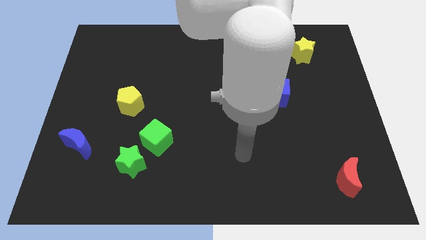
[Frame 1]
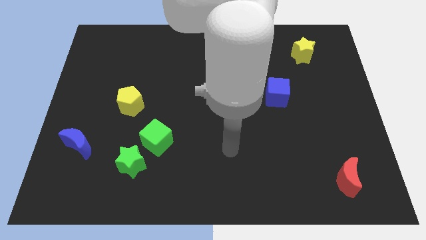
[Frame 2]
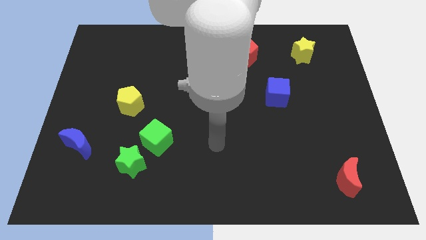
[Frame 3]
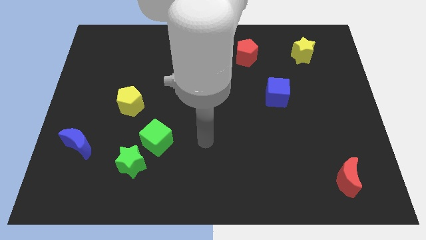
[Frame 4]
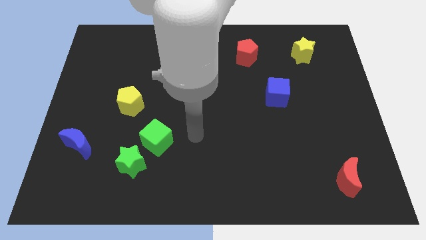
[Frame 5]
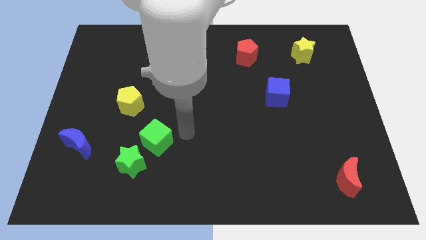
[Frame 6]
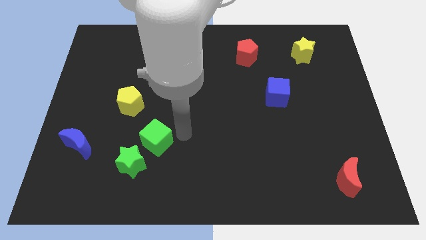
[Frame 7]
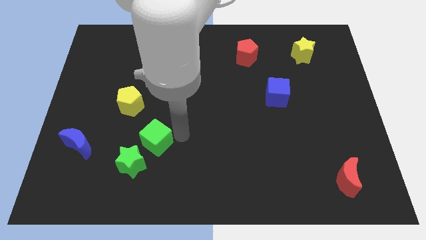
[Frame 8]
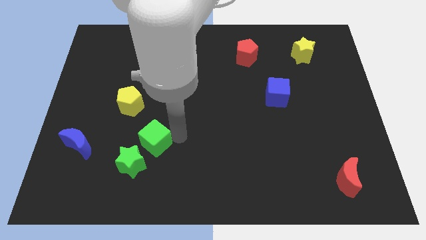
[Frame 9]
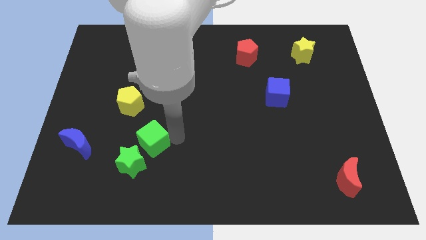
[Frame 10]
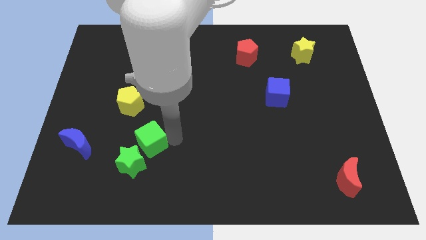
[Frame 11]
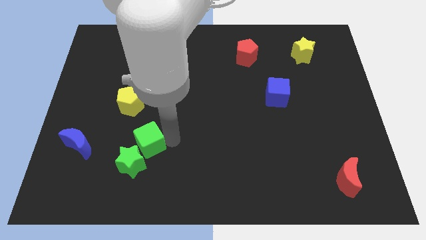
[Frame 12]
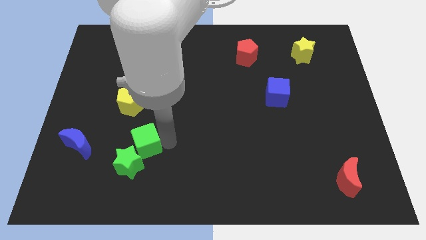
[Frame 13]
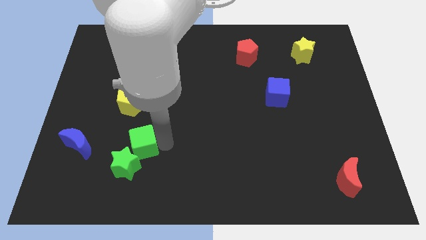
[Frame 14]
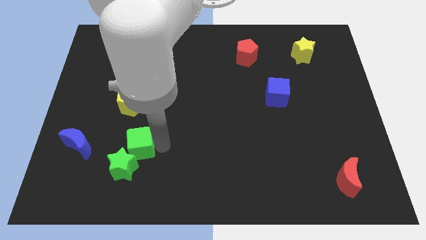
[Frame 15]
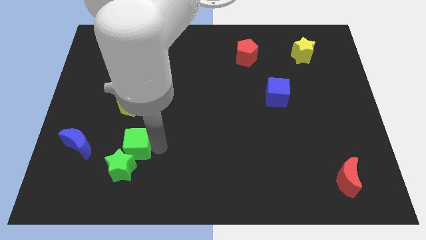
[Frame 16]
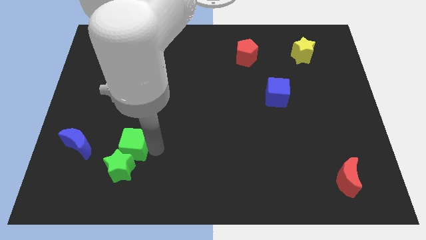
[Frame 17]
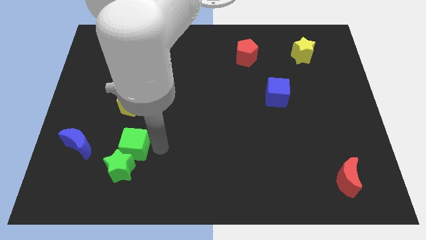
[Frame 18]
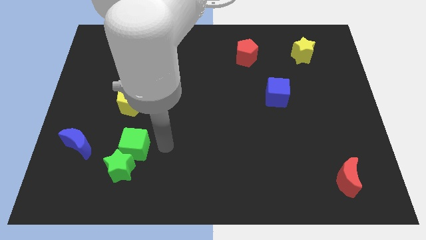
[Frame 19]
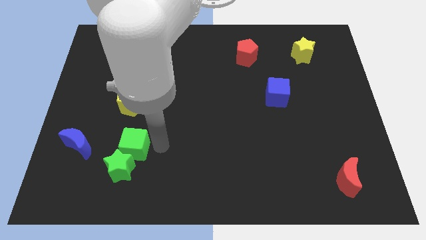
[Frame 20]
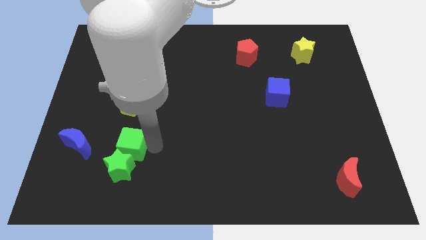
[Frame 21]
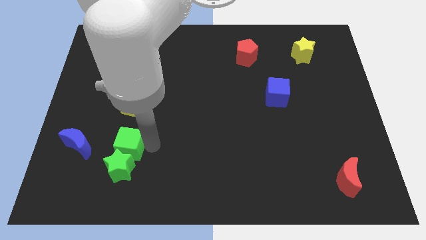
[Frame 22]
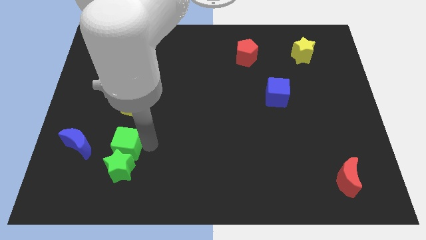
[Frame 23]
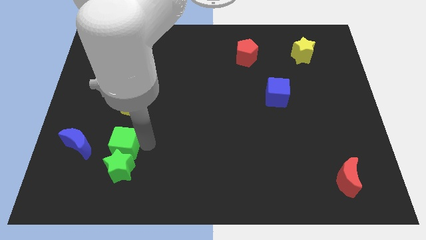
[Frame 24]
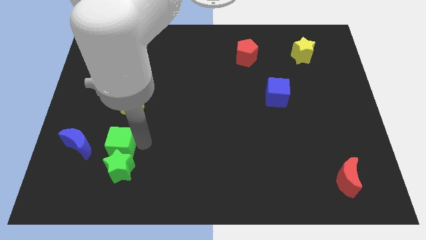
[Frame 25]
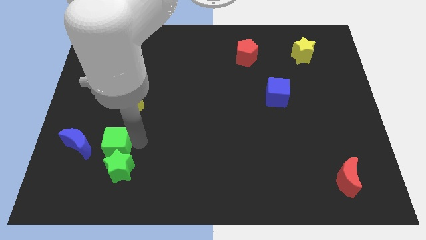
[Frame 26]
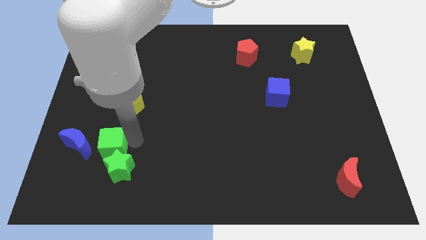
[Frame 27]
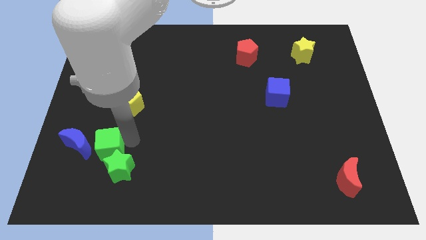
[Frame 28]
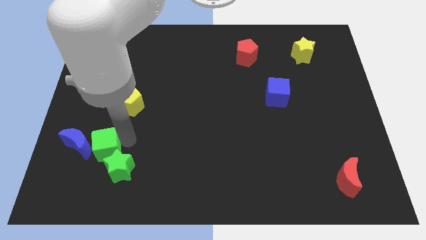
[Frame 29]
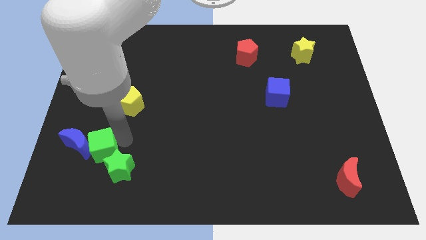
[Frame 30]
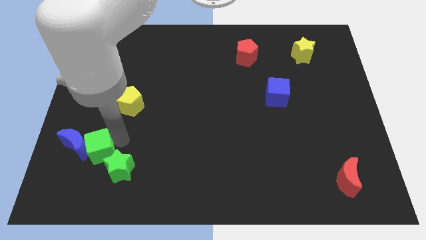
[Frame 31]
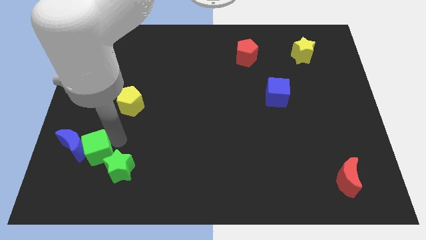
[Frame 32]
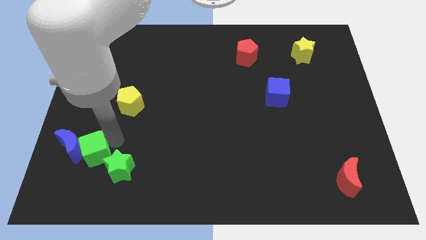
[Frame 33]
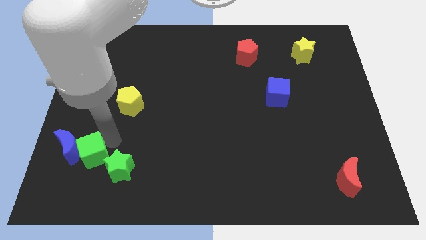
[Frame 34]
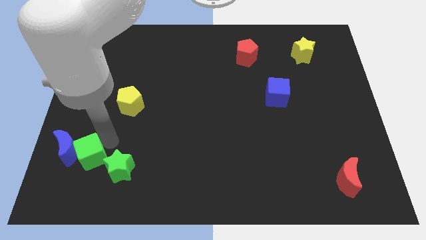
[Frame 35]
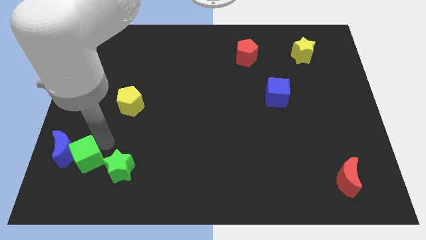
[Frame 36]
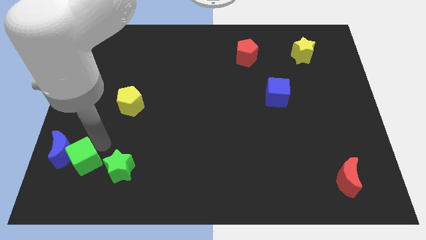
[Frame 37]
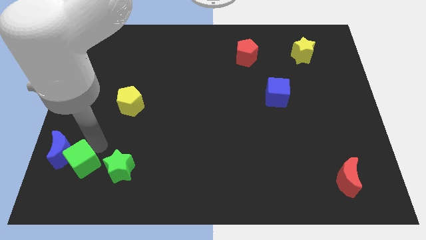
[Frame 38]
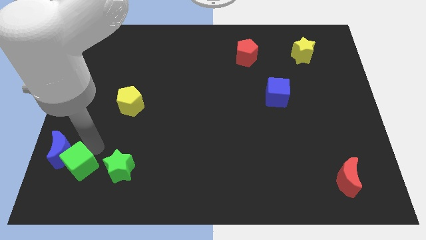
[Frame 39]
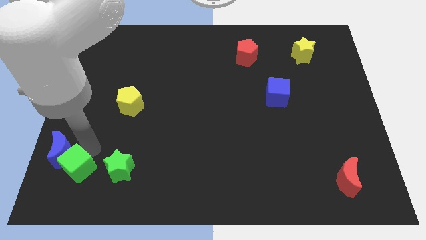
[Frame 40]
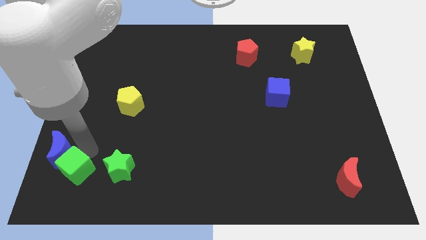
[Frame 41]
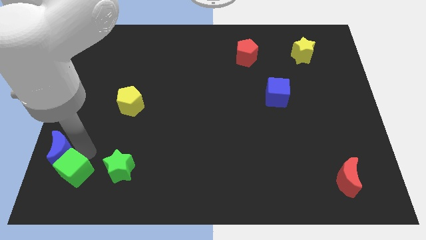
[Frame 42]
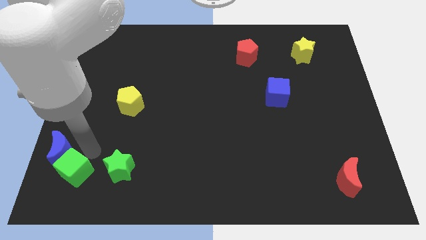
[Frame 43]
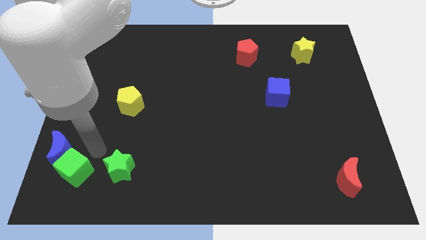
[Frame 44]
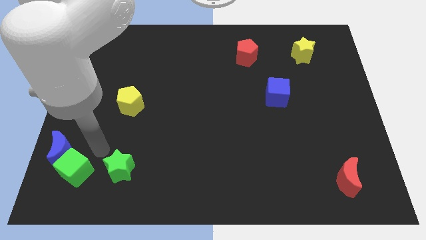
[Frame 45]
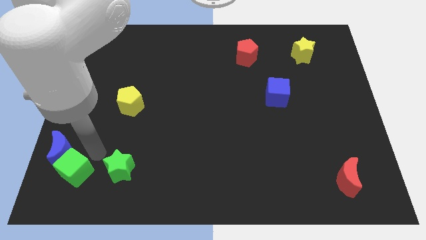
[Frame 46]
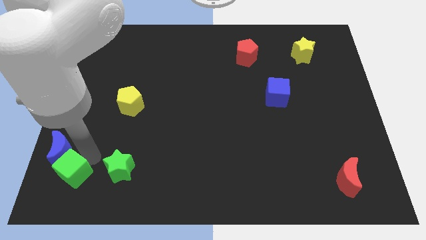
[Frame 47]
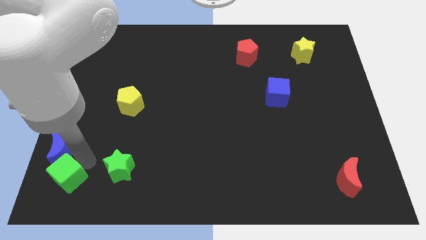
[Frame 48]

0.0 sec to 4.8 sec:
put the green cube to the lower left corner

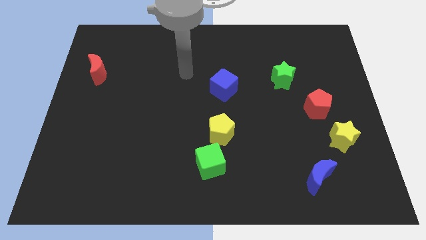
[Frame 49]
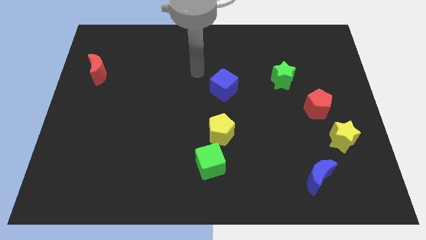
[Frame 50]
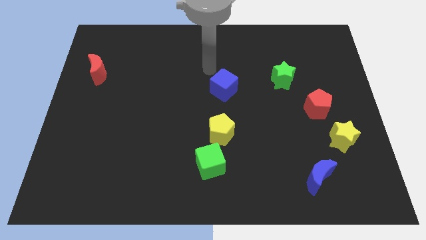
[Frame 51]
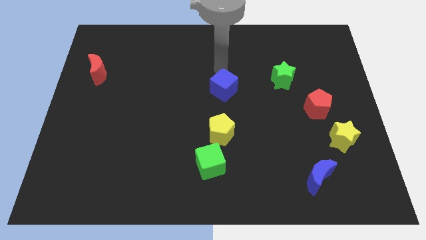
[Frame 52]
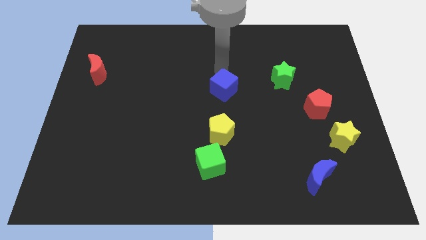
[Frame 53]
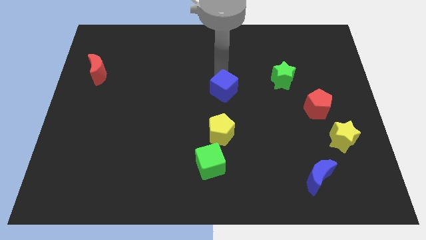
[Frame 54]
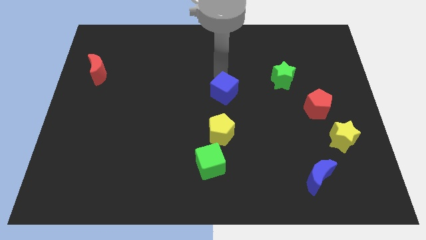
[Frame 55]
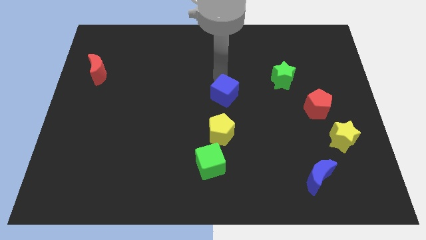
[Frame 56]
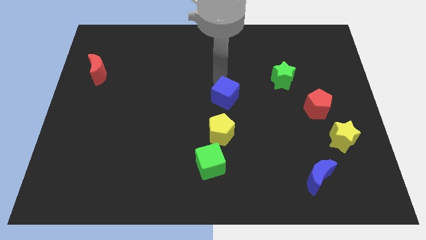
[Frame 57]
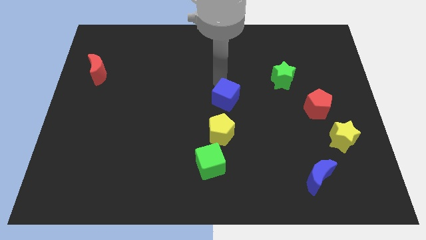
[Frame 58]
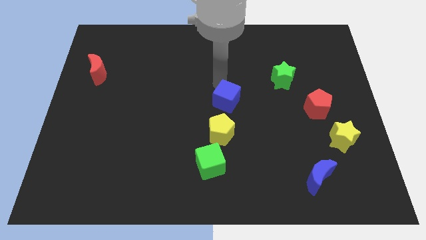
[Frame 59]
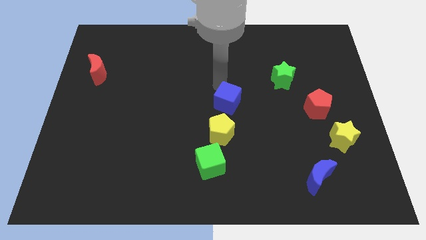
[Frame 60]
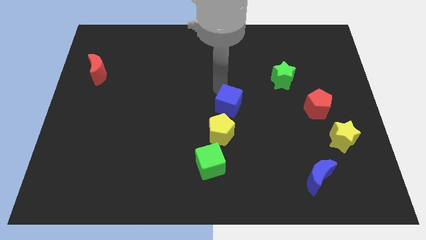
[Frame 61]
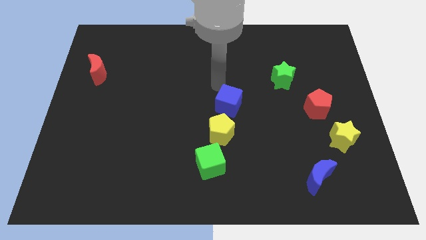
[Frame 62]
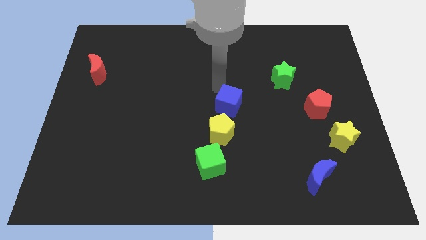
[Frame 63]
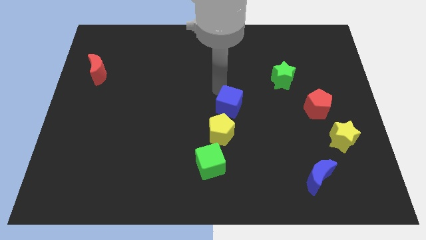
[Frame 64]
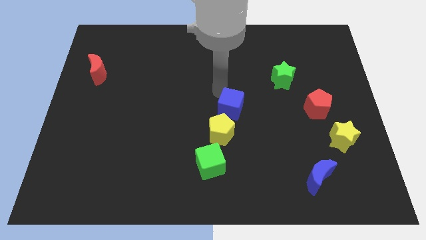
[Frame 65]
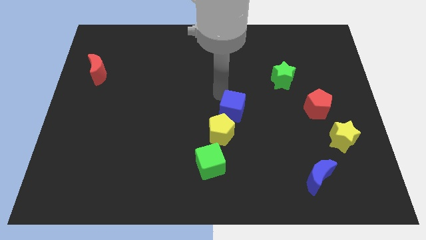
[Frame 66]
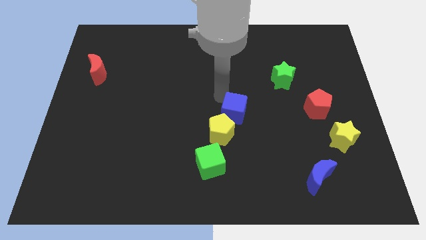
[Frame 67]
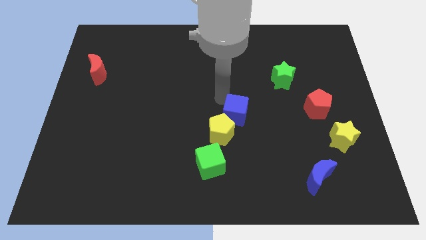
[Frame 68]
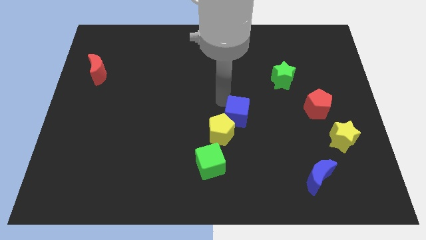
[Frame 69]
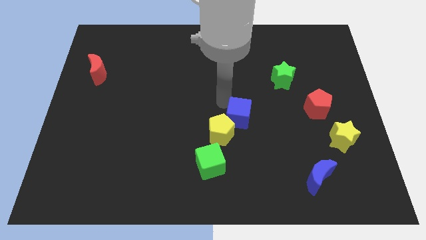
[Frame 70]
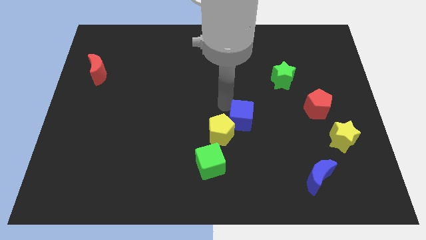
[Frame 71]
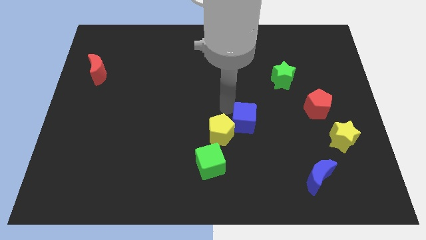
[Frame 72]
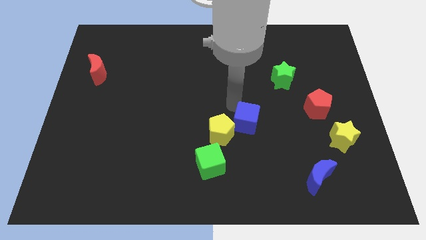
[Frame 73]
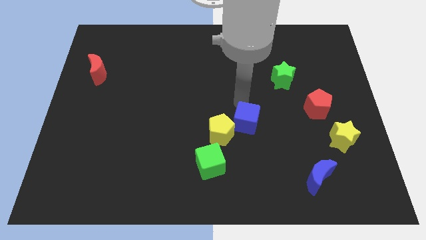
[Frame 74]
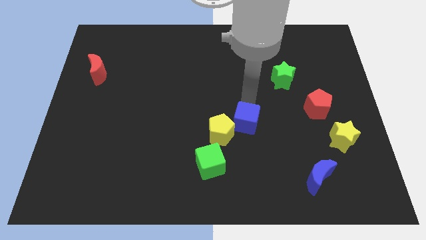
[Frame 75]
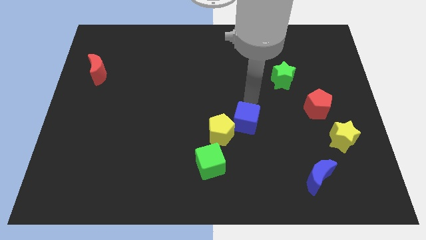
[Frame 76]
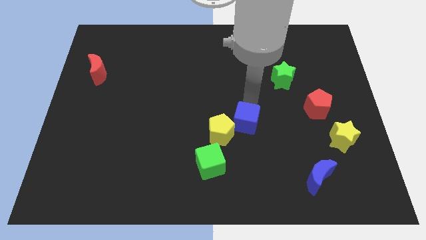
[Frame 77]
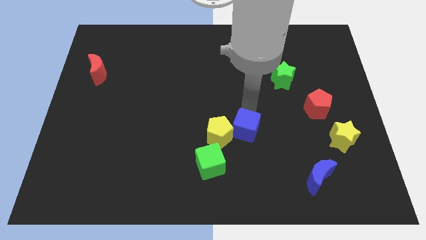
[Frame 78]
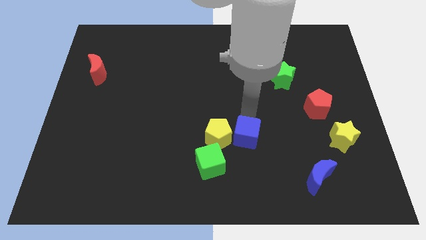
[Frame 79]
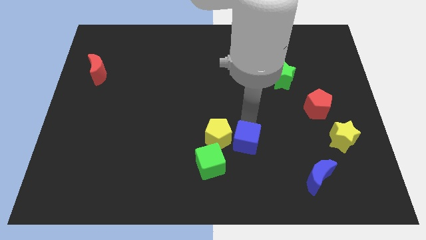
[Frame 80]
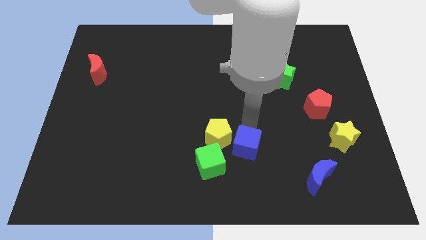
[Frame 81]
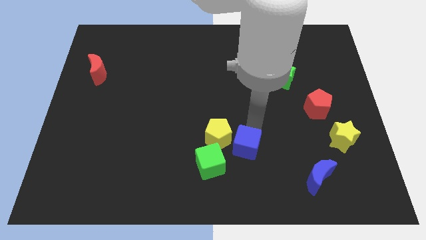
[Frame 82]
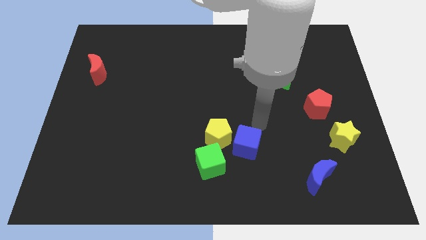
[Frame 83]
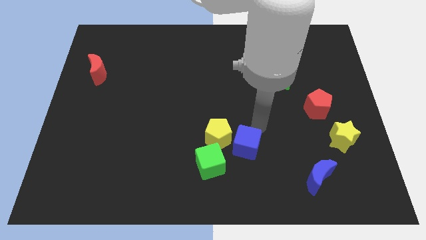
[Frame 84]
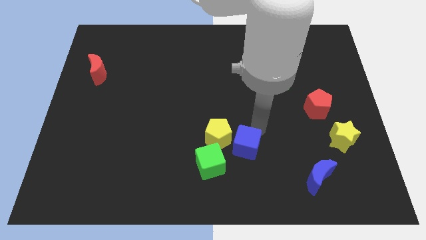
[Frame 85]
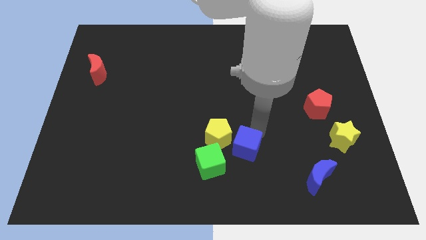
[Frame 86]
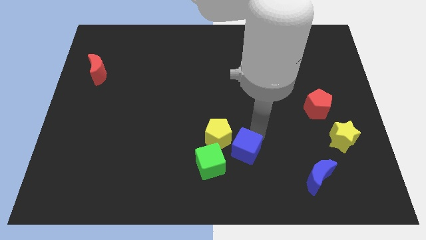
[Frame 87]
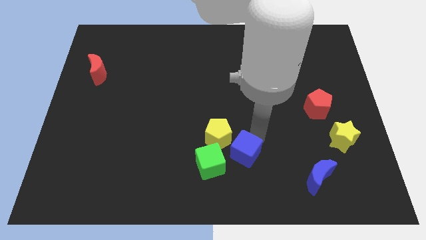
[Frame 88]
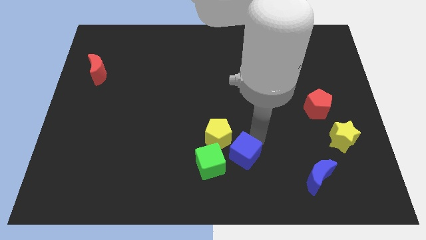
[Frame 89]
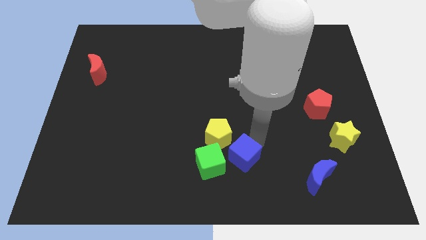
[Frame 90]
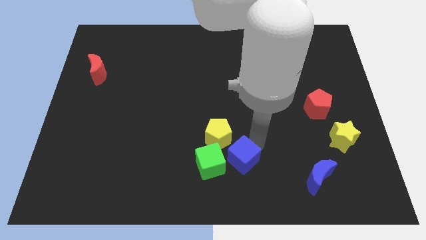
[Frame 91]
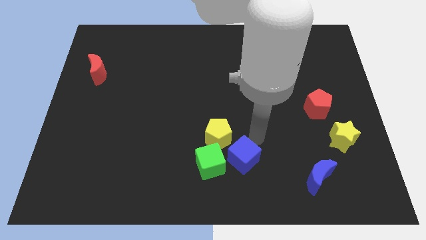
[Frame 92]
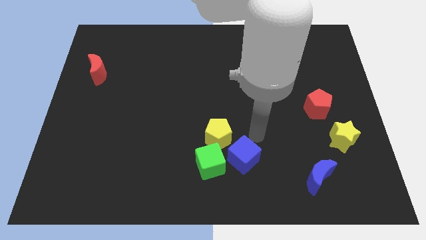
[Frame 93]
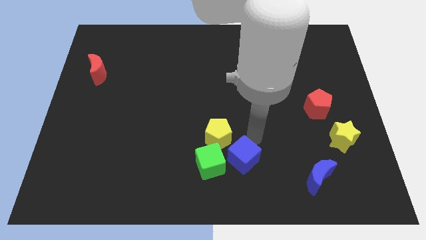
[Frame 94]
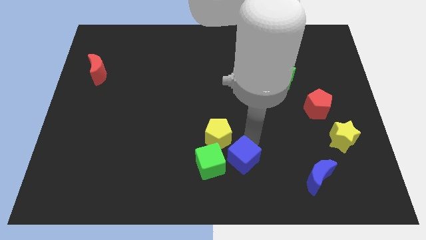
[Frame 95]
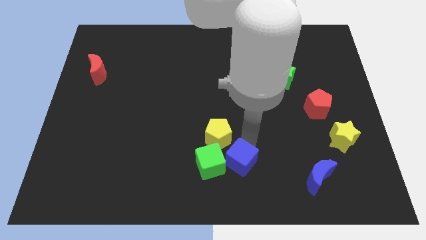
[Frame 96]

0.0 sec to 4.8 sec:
put the blue cube to the bottom
